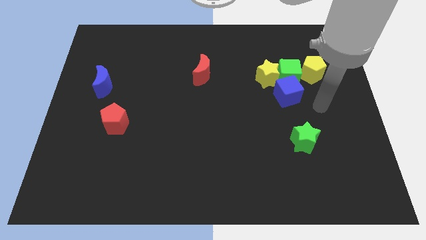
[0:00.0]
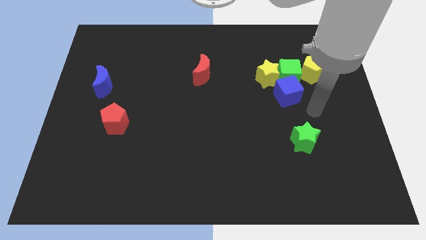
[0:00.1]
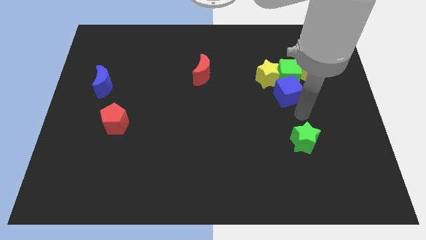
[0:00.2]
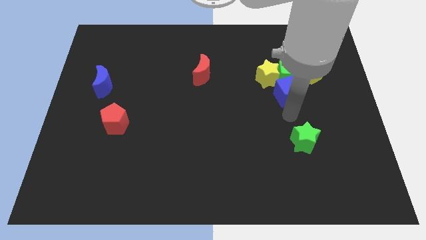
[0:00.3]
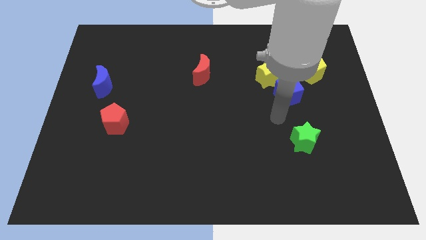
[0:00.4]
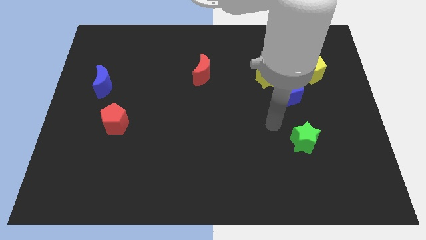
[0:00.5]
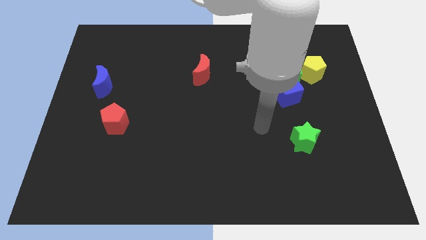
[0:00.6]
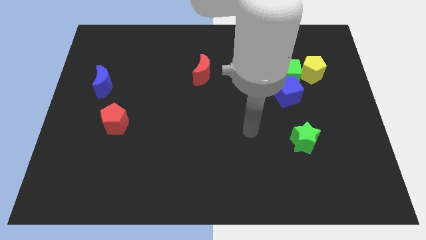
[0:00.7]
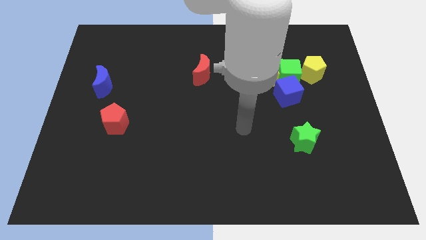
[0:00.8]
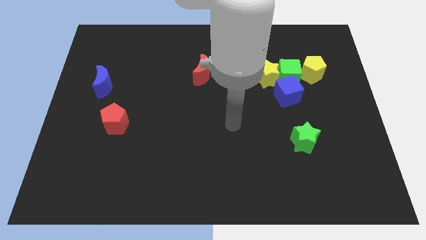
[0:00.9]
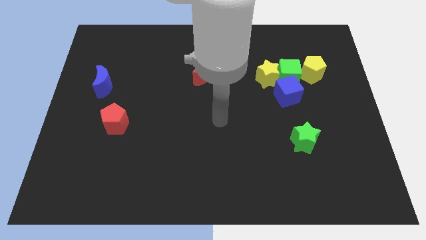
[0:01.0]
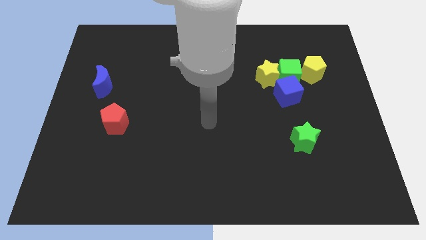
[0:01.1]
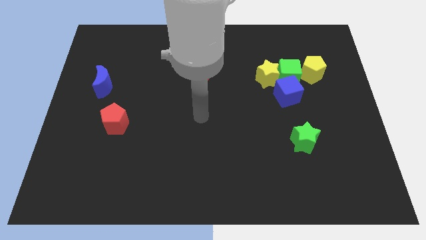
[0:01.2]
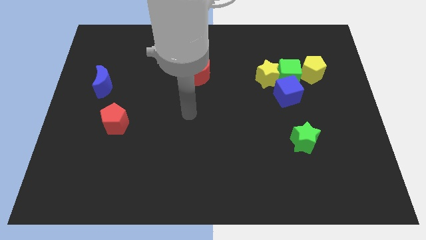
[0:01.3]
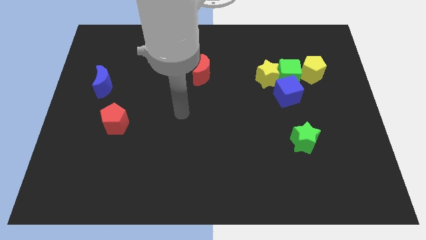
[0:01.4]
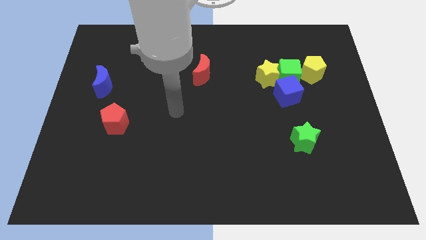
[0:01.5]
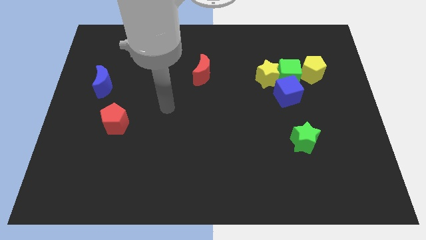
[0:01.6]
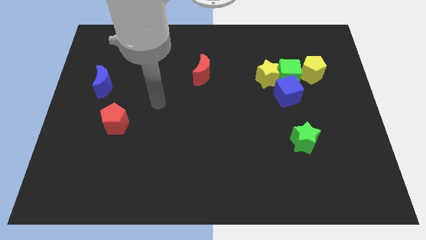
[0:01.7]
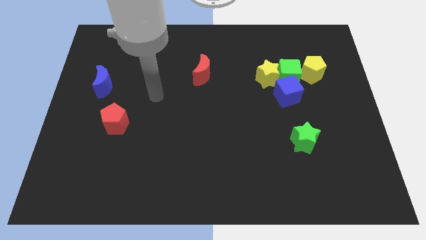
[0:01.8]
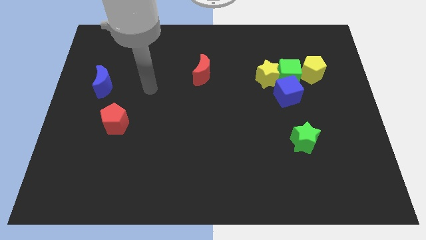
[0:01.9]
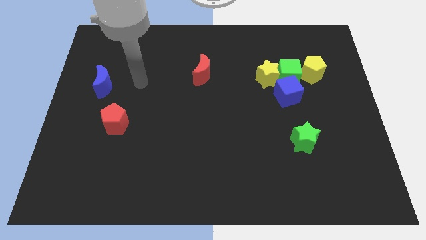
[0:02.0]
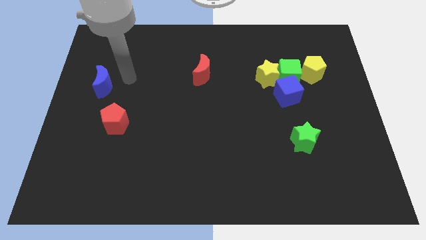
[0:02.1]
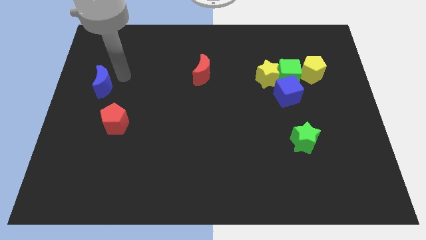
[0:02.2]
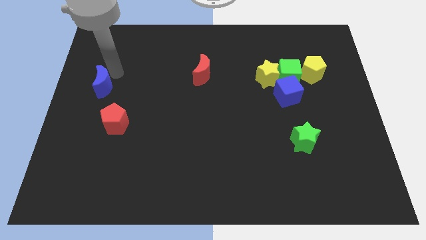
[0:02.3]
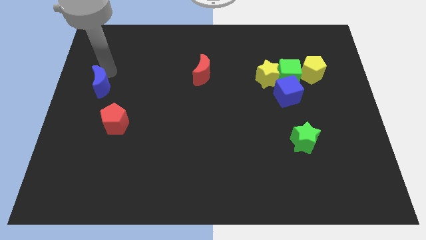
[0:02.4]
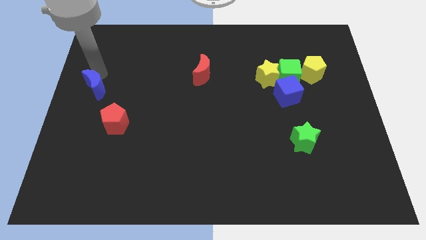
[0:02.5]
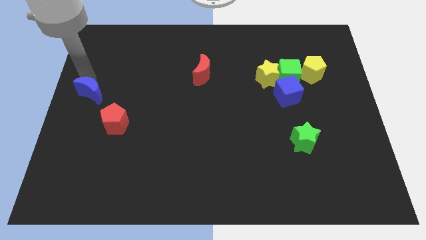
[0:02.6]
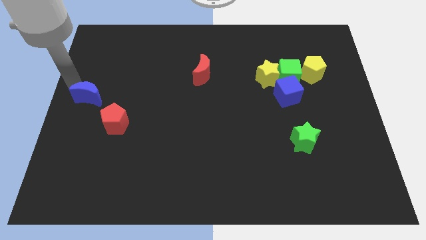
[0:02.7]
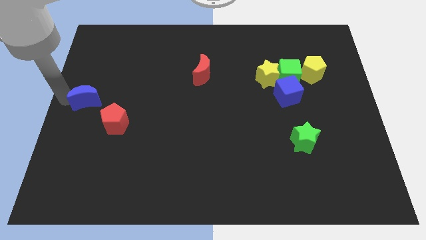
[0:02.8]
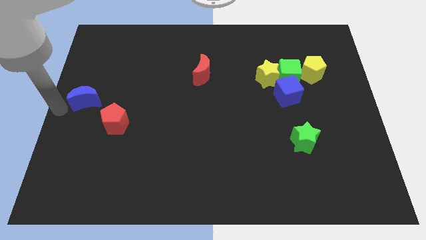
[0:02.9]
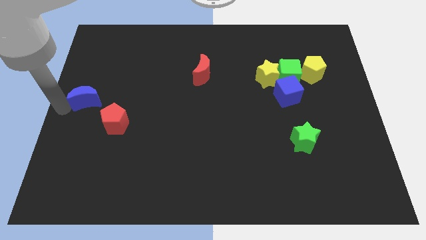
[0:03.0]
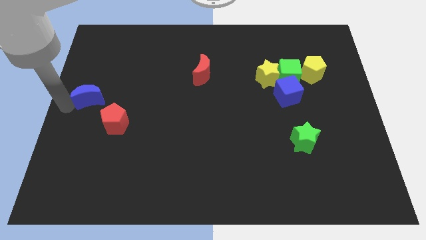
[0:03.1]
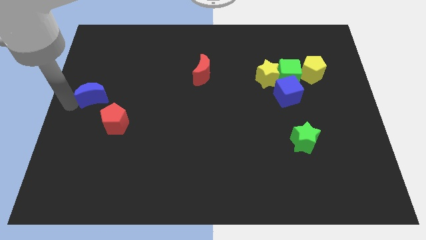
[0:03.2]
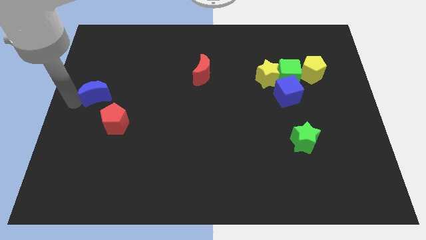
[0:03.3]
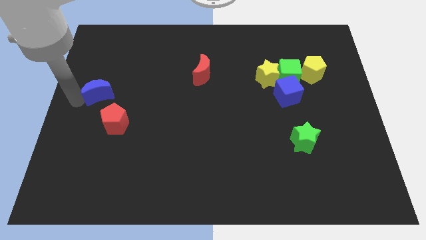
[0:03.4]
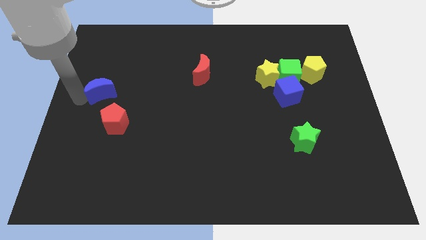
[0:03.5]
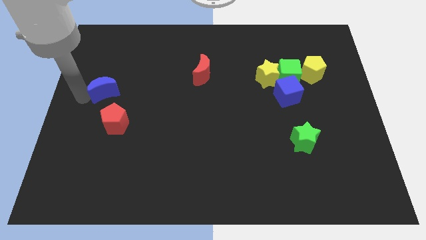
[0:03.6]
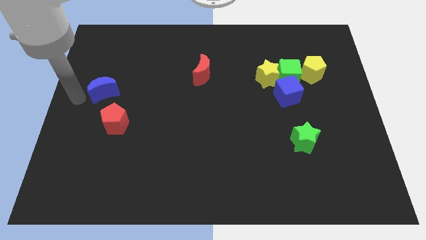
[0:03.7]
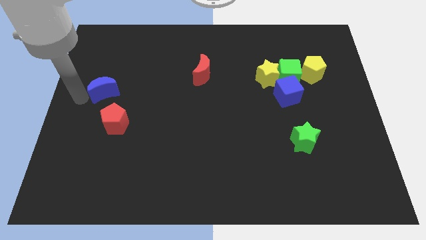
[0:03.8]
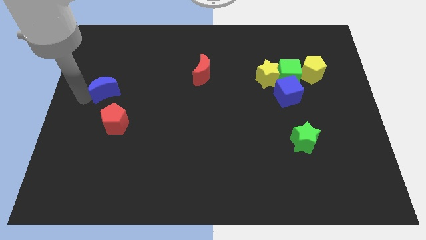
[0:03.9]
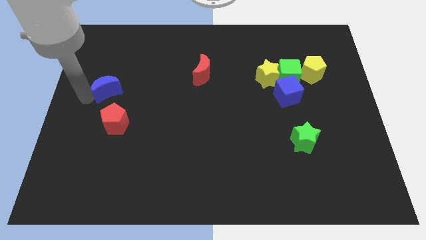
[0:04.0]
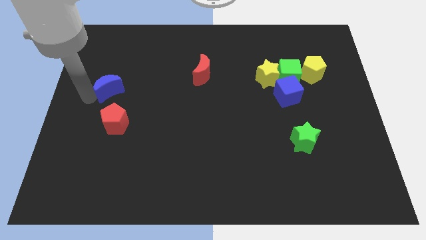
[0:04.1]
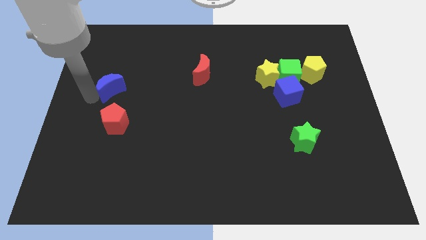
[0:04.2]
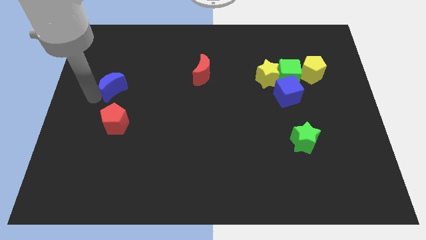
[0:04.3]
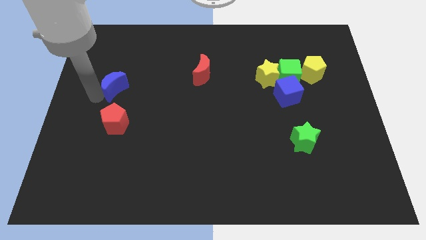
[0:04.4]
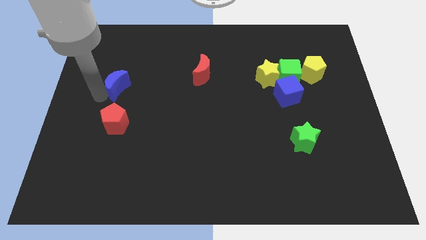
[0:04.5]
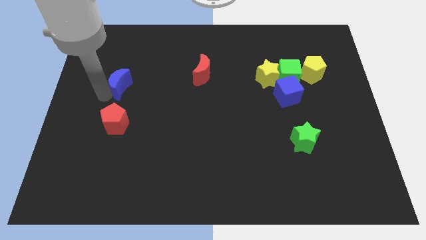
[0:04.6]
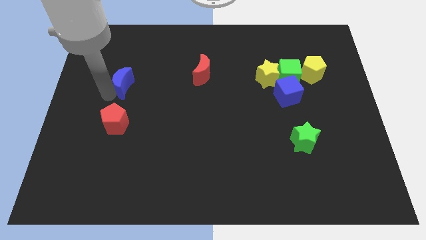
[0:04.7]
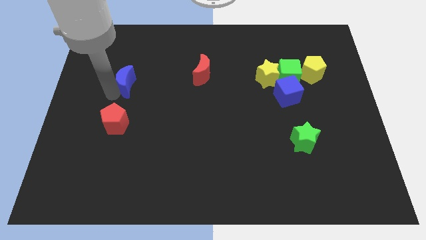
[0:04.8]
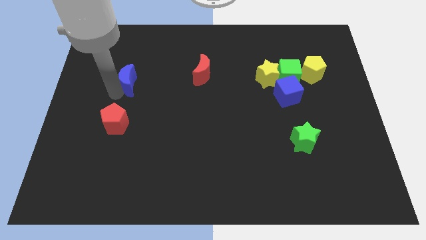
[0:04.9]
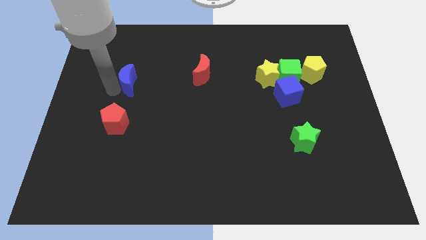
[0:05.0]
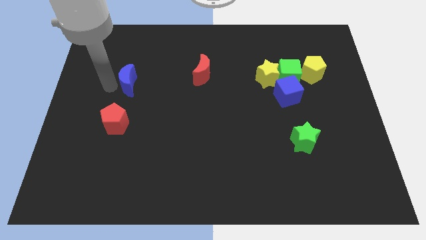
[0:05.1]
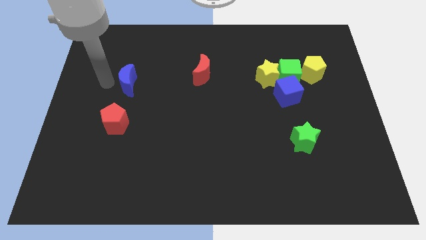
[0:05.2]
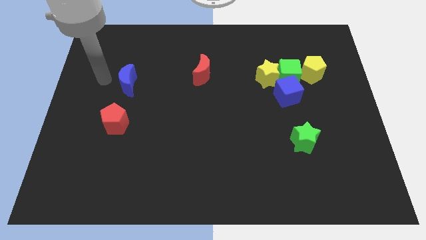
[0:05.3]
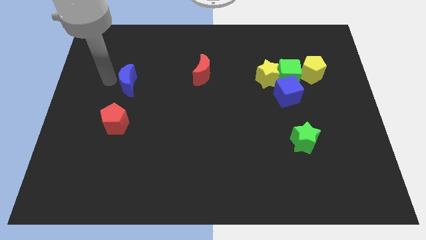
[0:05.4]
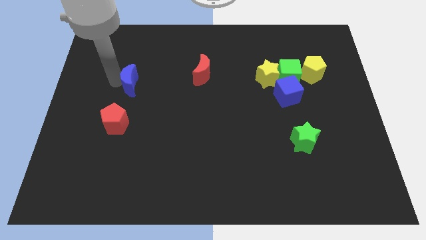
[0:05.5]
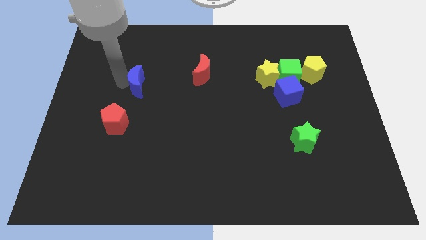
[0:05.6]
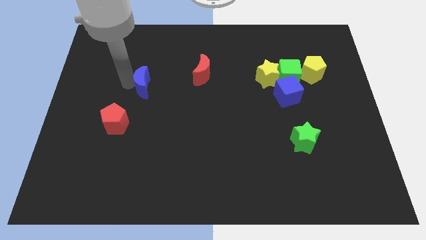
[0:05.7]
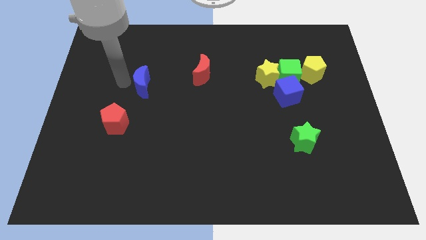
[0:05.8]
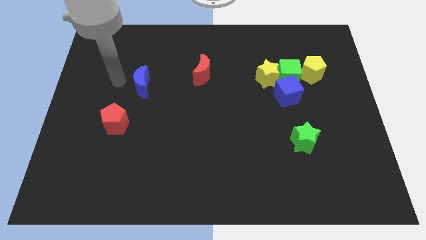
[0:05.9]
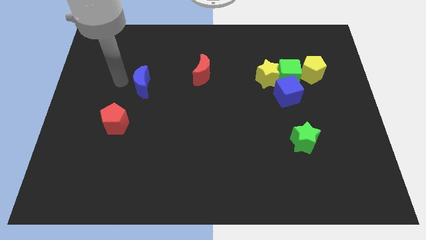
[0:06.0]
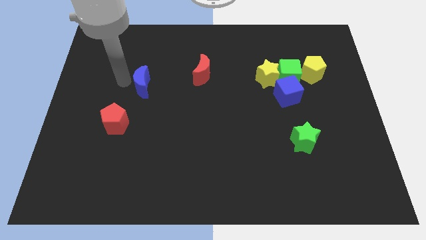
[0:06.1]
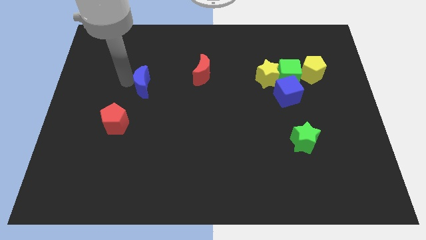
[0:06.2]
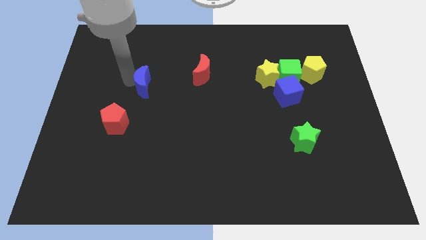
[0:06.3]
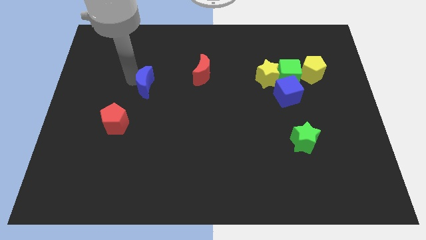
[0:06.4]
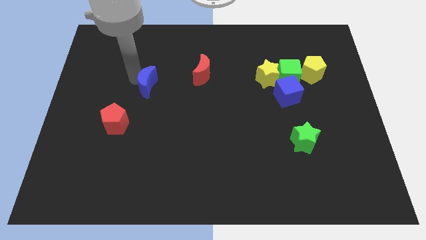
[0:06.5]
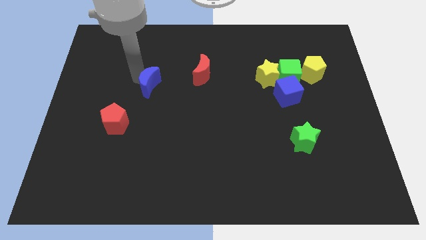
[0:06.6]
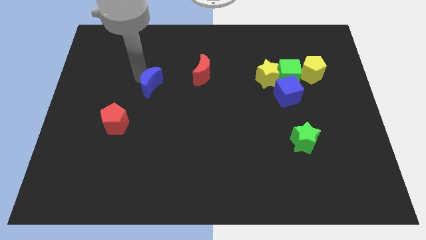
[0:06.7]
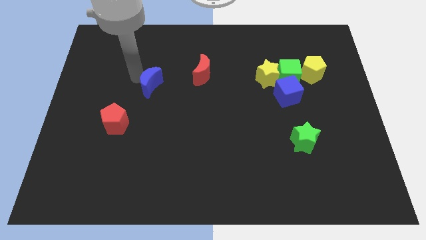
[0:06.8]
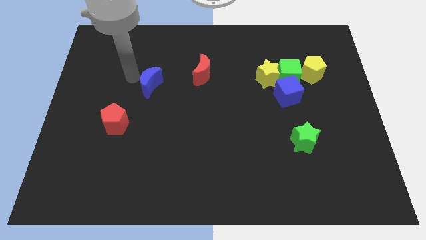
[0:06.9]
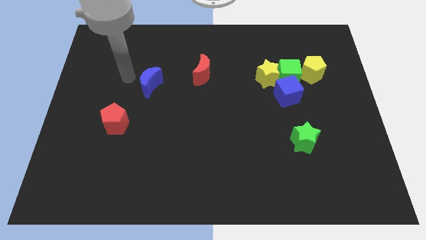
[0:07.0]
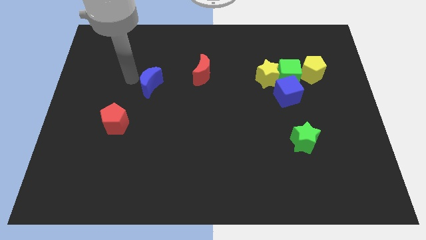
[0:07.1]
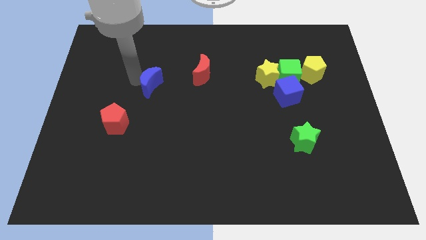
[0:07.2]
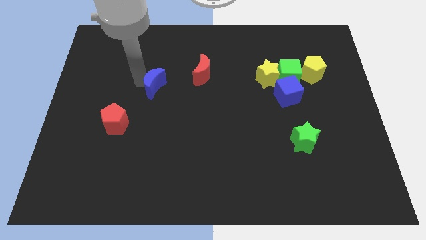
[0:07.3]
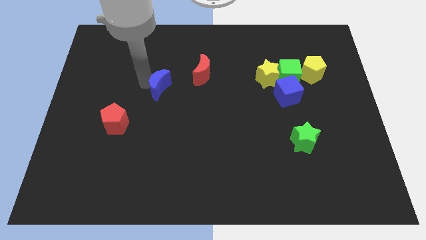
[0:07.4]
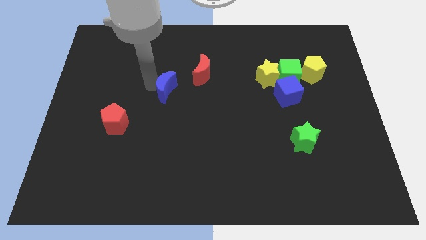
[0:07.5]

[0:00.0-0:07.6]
move the blue moon to the middle
